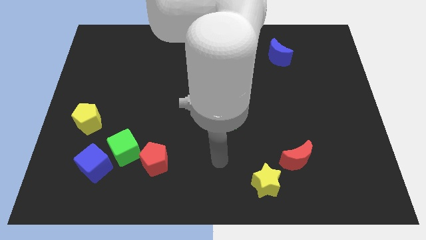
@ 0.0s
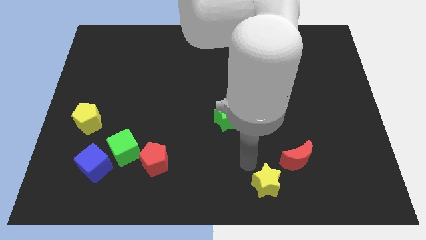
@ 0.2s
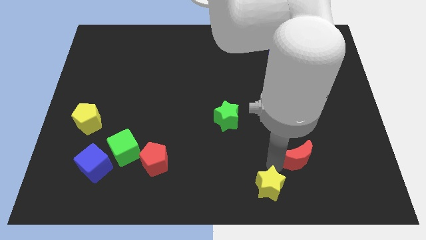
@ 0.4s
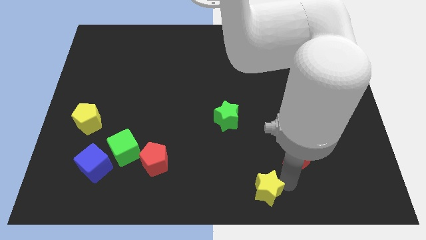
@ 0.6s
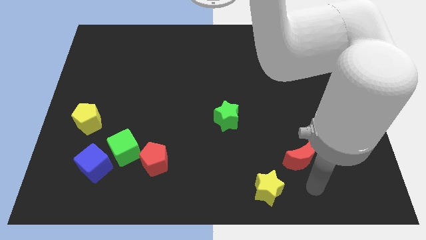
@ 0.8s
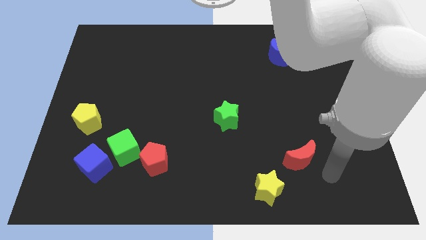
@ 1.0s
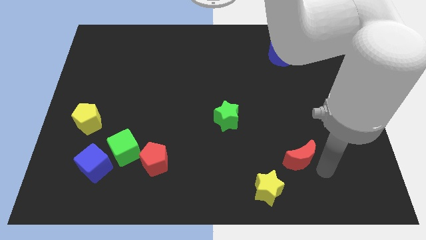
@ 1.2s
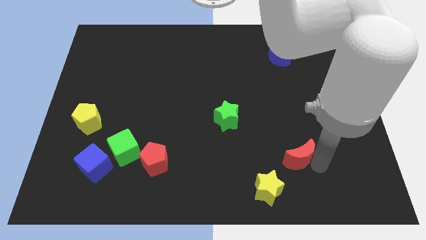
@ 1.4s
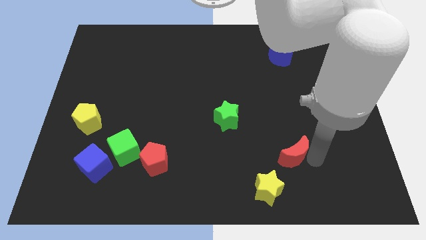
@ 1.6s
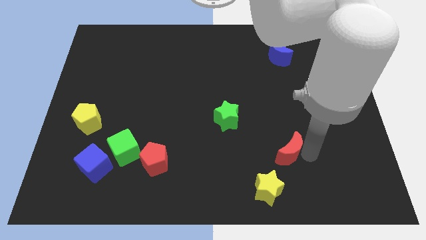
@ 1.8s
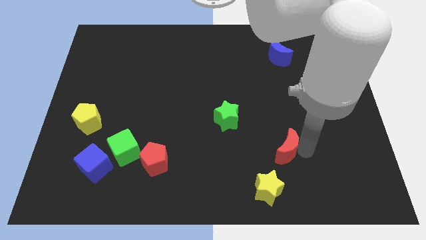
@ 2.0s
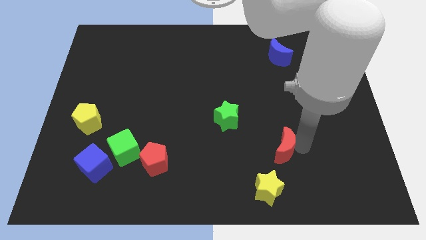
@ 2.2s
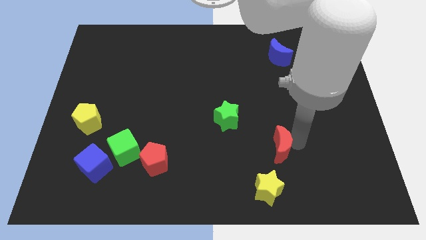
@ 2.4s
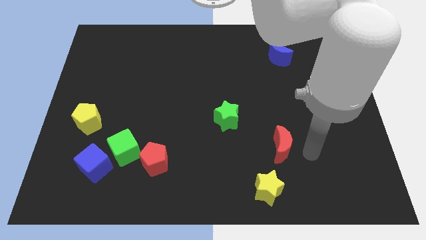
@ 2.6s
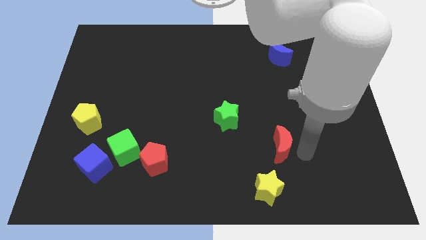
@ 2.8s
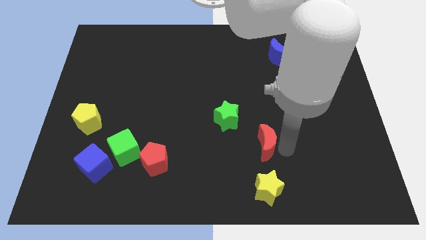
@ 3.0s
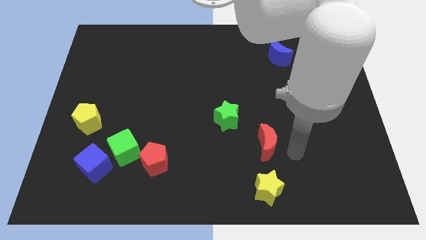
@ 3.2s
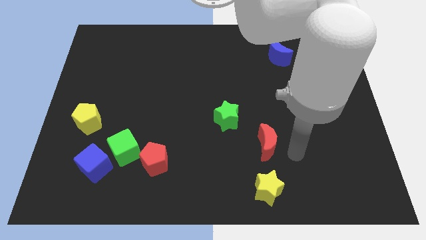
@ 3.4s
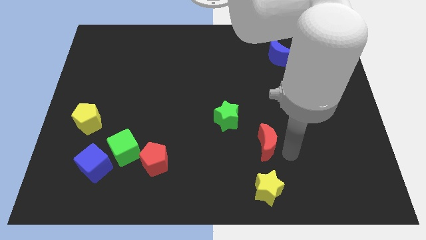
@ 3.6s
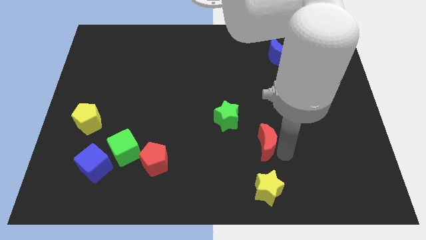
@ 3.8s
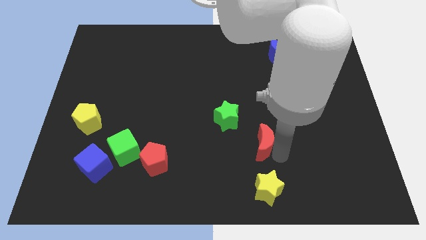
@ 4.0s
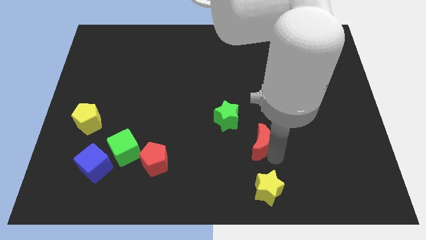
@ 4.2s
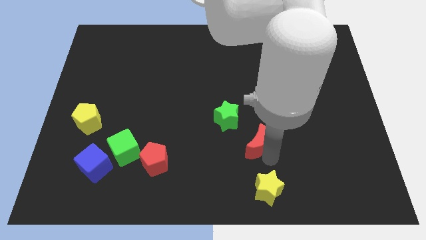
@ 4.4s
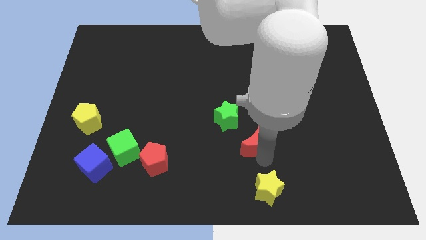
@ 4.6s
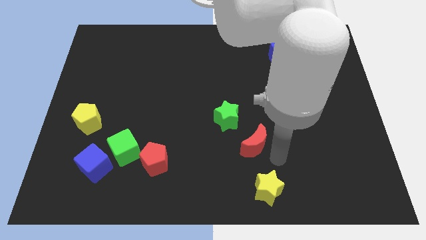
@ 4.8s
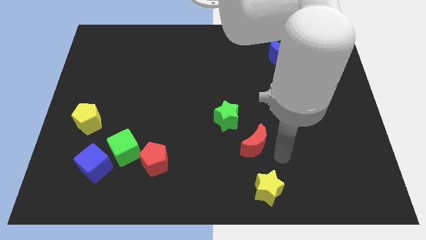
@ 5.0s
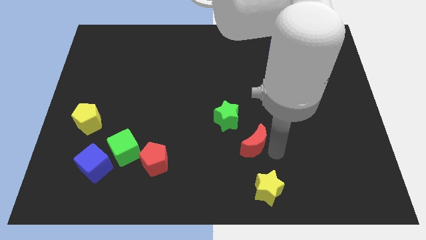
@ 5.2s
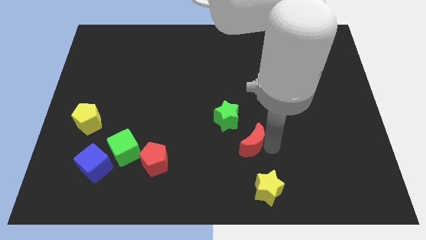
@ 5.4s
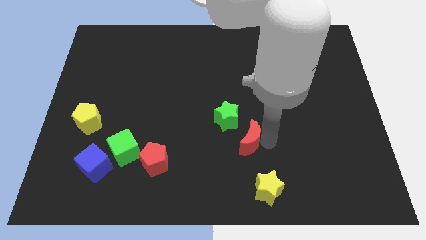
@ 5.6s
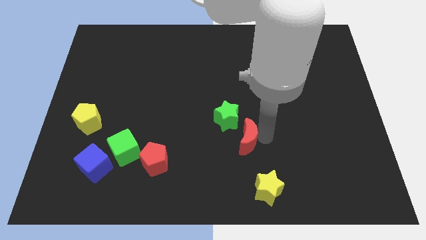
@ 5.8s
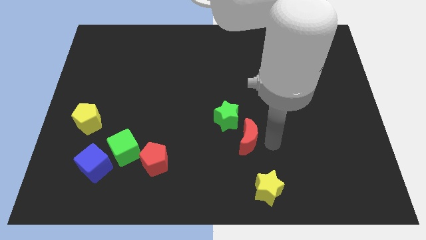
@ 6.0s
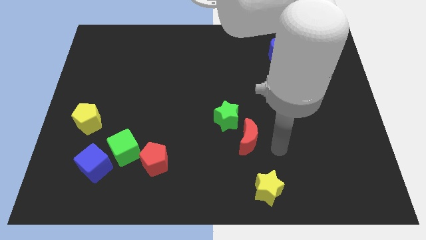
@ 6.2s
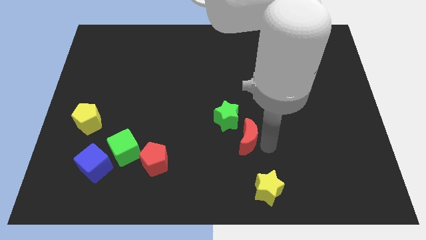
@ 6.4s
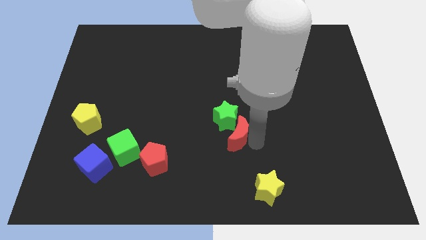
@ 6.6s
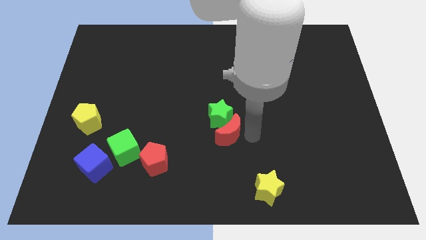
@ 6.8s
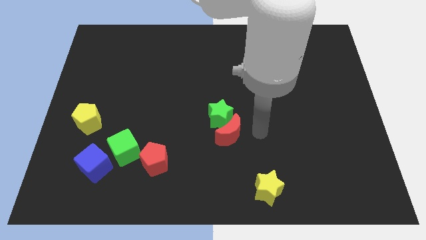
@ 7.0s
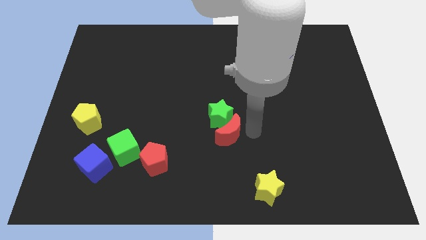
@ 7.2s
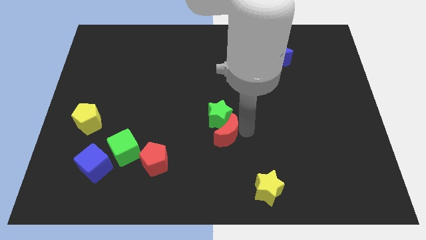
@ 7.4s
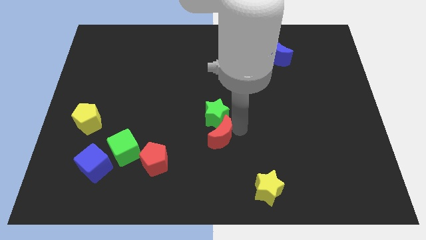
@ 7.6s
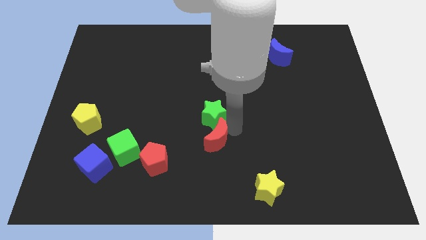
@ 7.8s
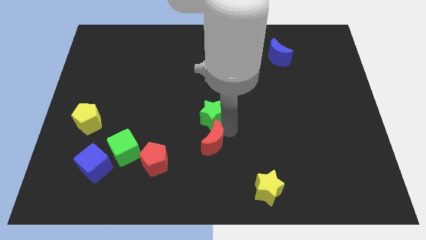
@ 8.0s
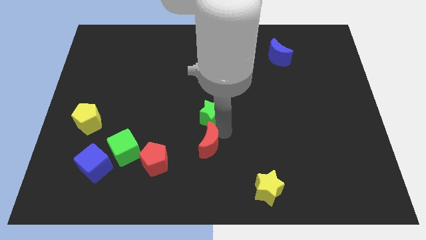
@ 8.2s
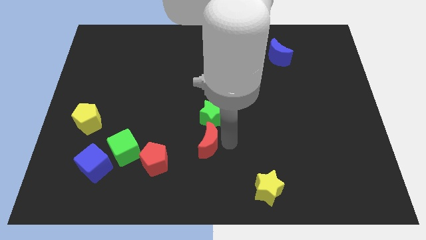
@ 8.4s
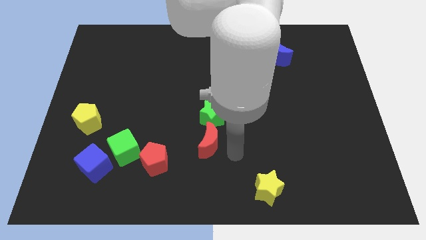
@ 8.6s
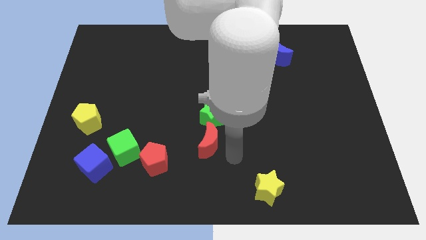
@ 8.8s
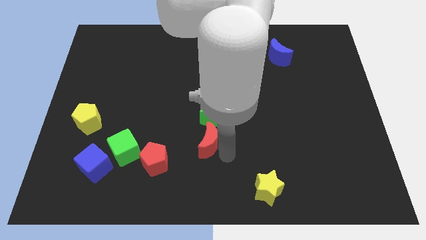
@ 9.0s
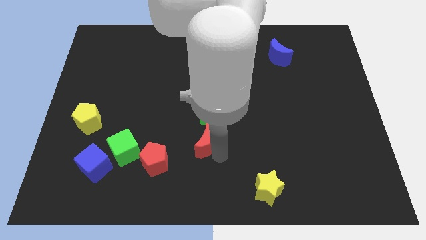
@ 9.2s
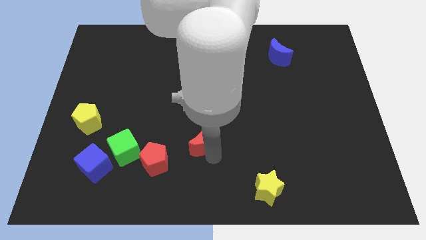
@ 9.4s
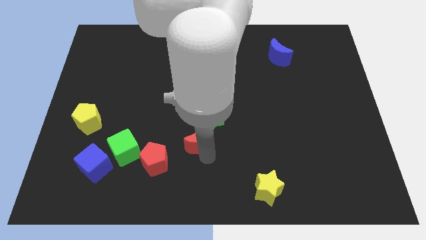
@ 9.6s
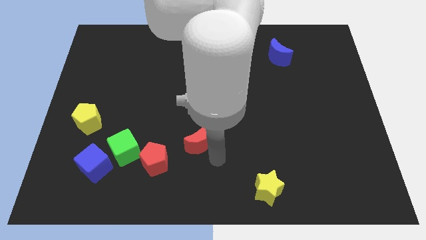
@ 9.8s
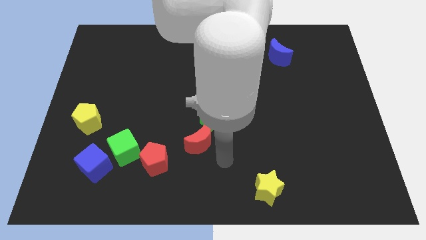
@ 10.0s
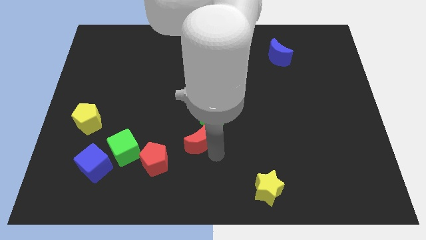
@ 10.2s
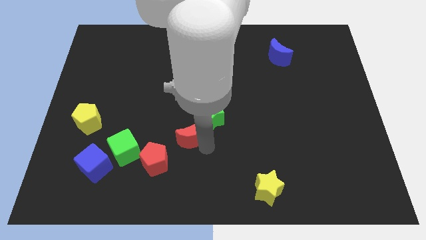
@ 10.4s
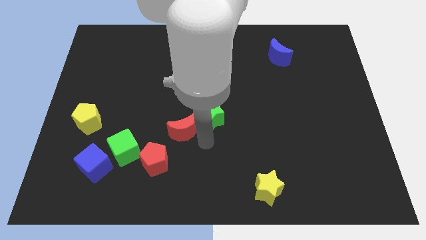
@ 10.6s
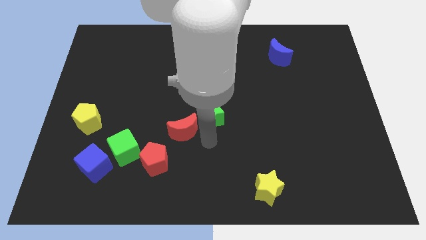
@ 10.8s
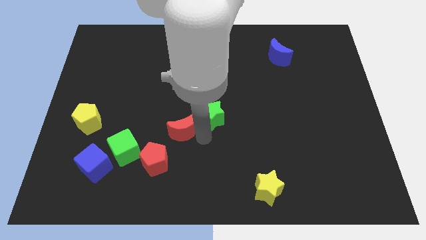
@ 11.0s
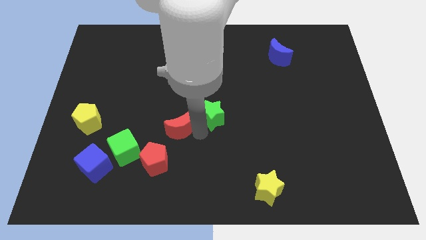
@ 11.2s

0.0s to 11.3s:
put the red moon above the red pentagon

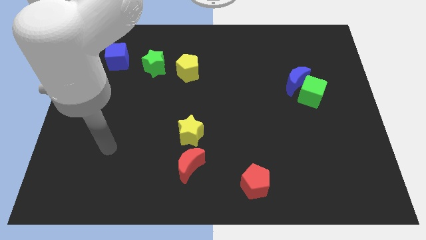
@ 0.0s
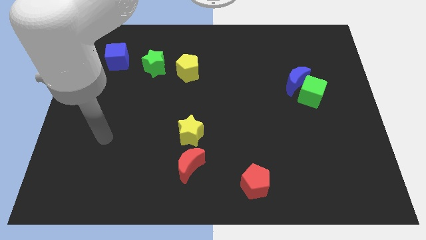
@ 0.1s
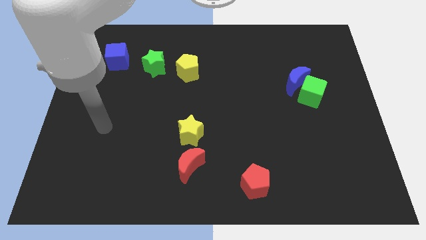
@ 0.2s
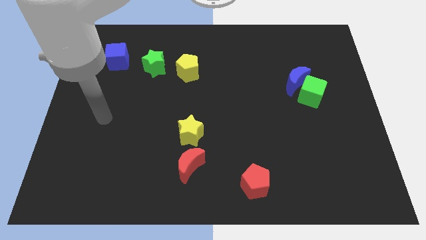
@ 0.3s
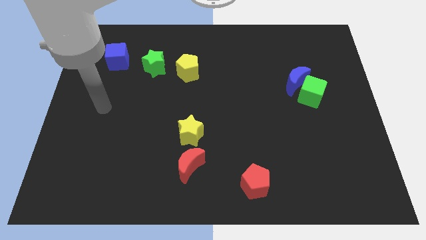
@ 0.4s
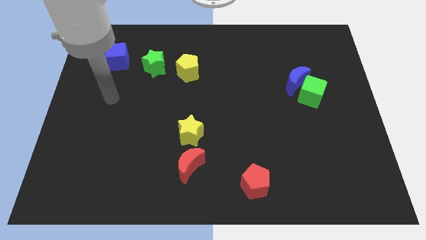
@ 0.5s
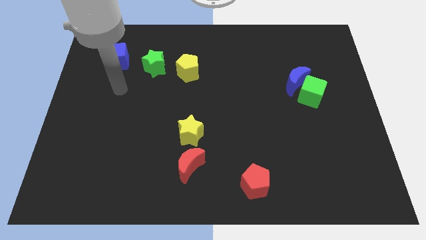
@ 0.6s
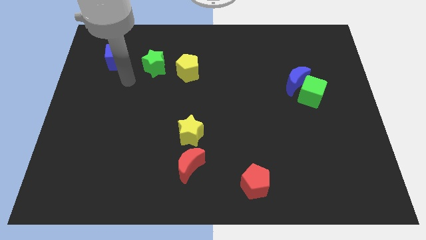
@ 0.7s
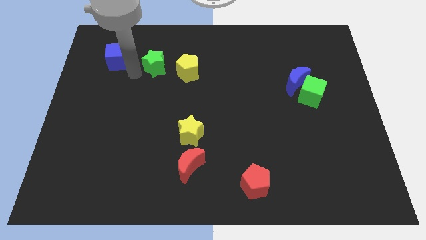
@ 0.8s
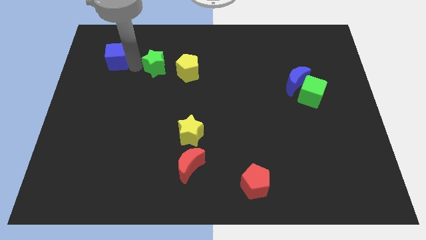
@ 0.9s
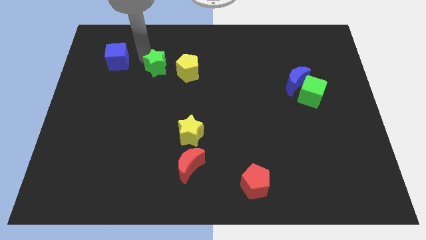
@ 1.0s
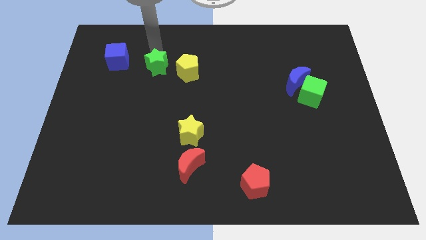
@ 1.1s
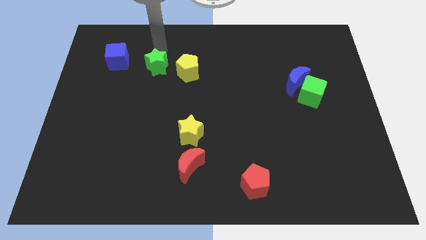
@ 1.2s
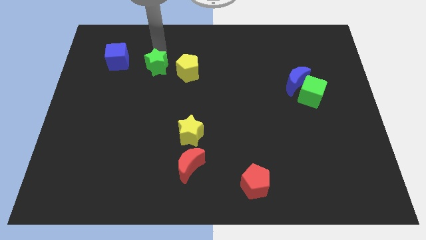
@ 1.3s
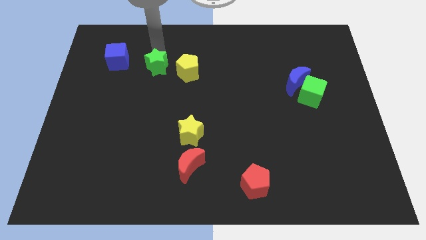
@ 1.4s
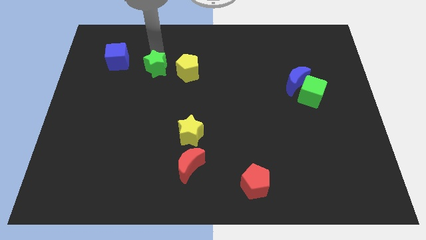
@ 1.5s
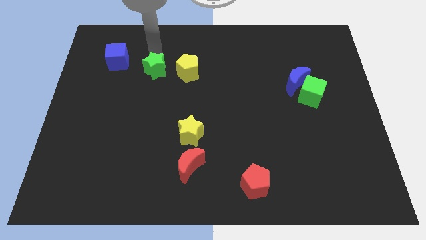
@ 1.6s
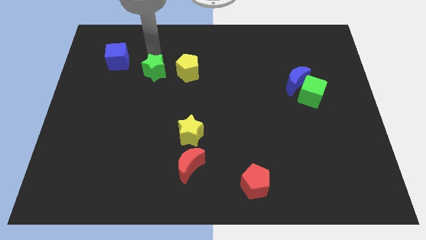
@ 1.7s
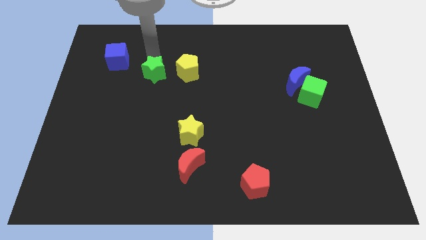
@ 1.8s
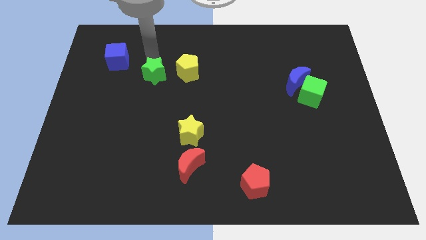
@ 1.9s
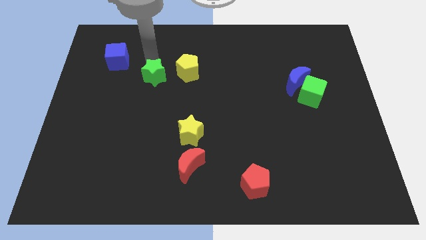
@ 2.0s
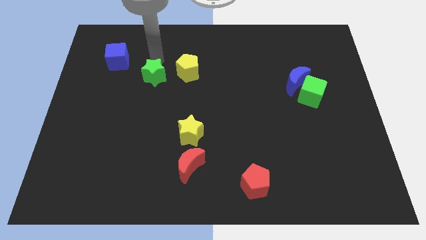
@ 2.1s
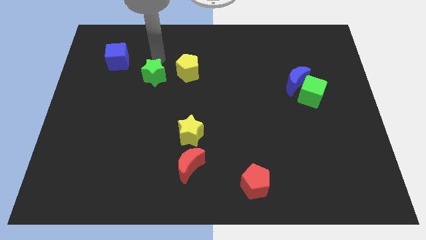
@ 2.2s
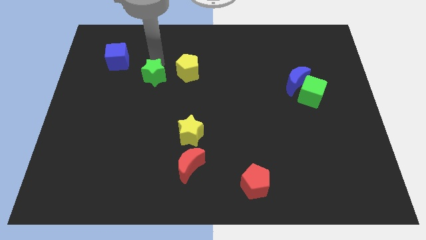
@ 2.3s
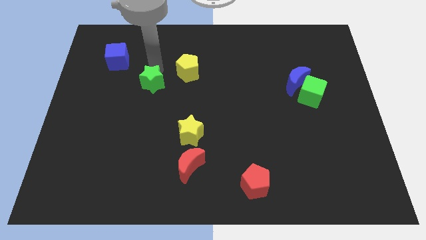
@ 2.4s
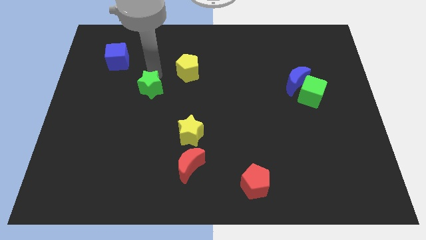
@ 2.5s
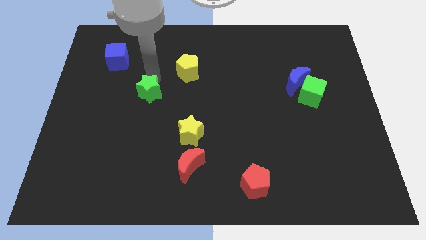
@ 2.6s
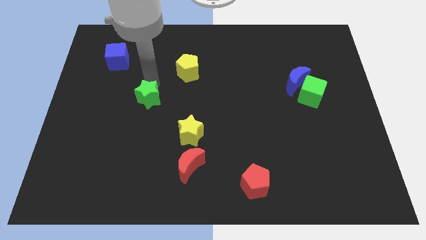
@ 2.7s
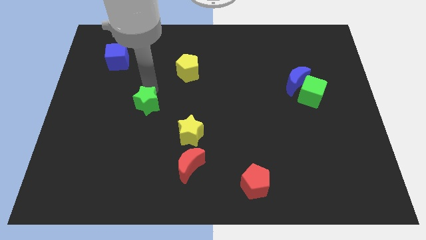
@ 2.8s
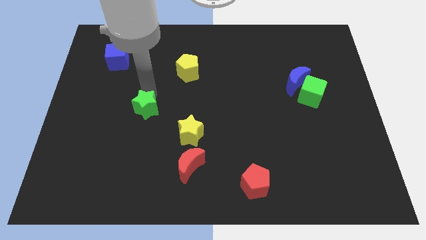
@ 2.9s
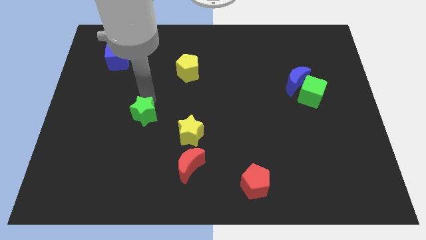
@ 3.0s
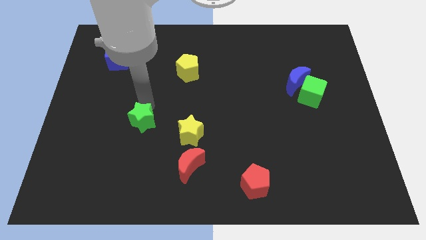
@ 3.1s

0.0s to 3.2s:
move the green star just left of the yellow star

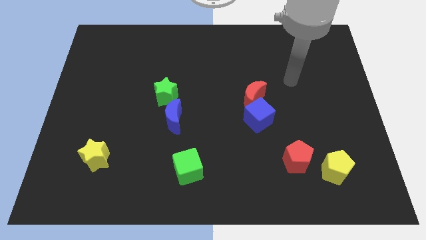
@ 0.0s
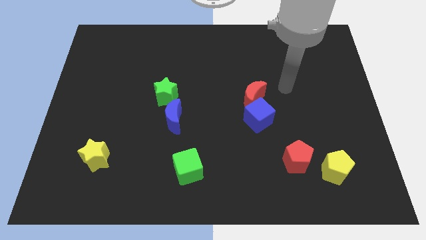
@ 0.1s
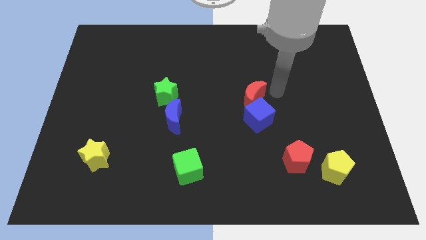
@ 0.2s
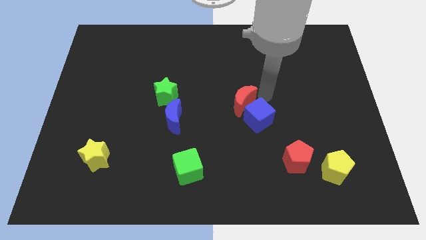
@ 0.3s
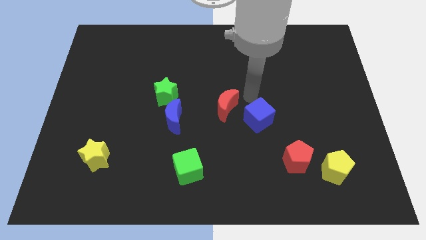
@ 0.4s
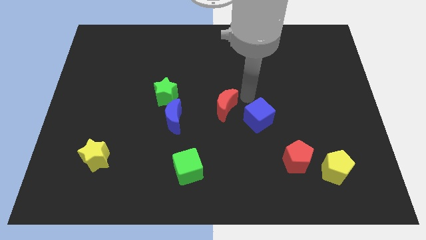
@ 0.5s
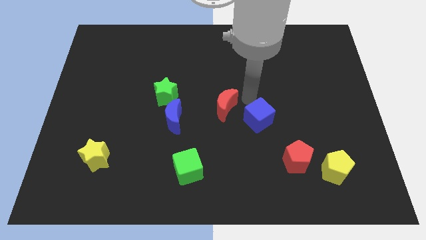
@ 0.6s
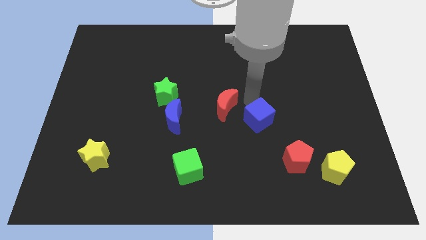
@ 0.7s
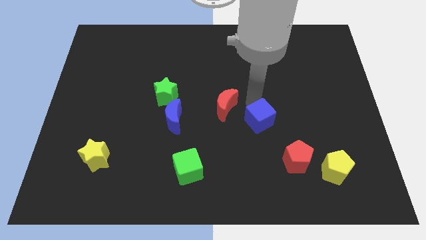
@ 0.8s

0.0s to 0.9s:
move the blue cube to the top left side of the red pentagon
